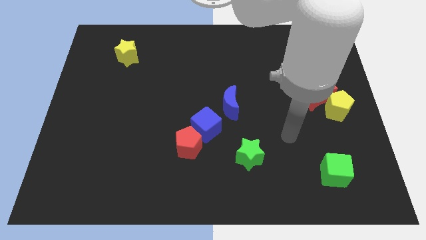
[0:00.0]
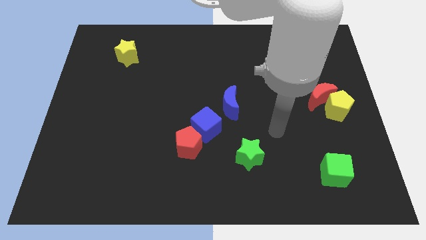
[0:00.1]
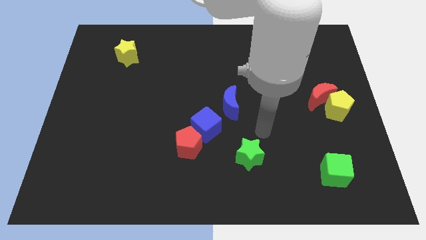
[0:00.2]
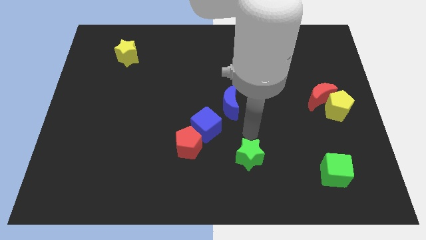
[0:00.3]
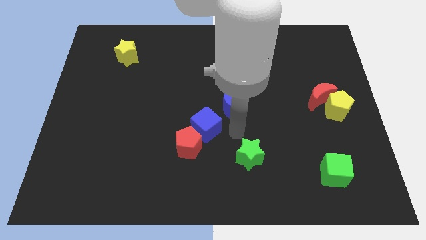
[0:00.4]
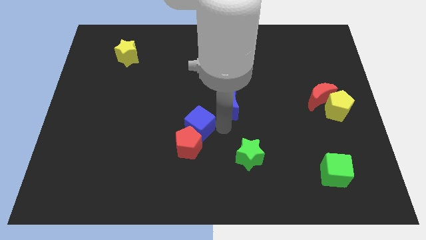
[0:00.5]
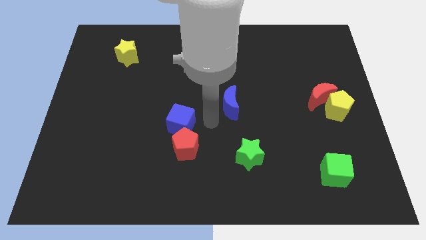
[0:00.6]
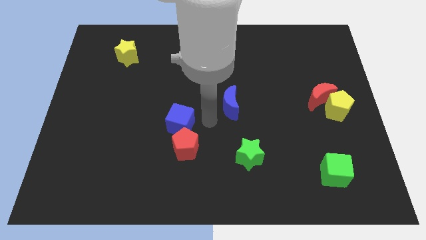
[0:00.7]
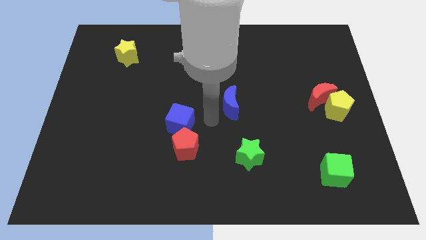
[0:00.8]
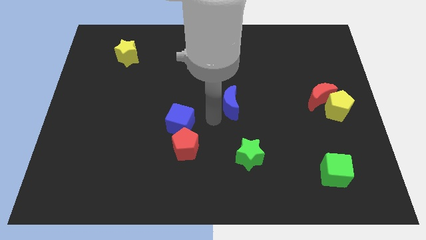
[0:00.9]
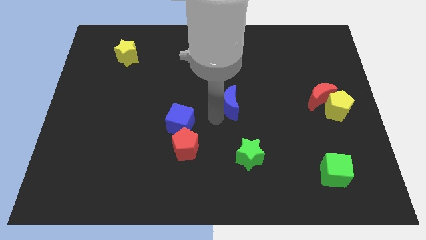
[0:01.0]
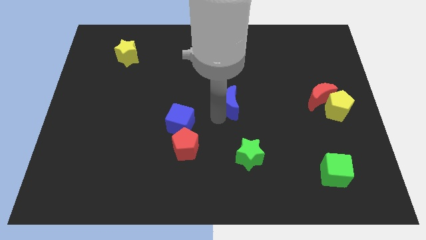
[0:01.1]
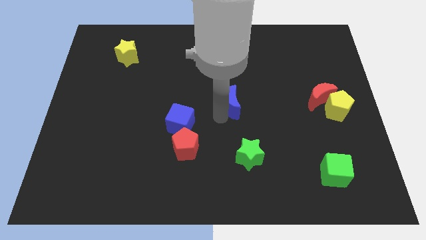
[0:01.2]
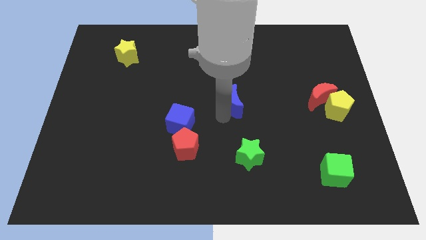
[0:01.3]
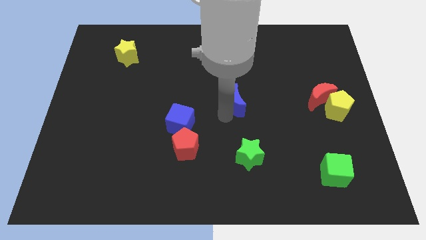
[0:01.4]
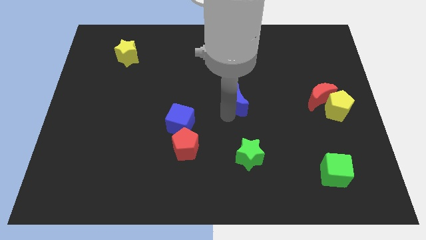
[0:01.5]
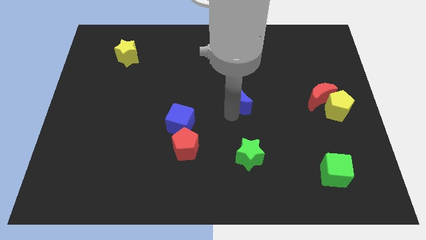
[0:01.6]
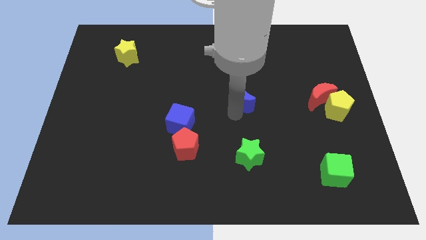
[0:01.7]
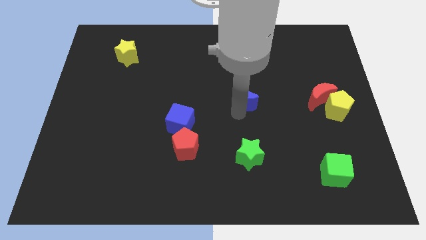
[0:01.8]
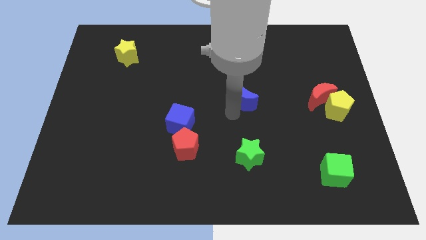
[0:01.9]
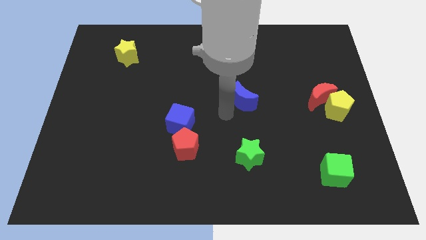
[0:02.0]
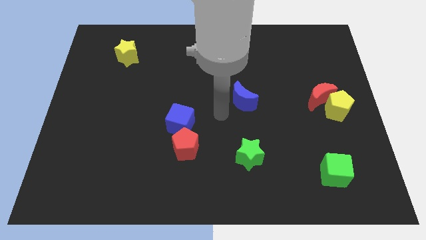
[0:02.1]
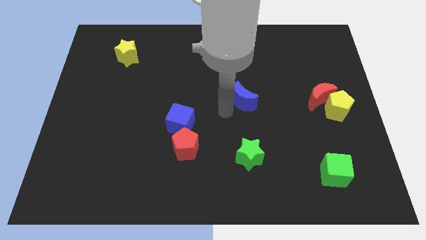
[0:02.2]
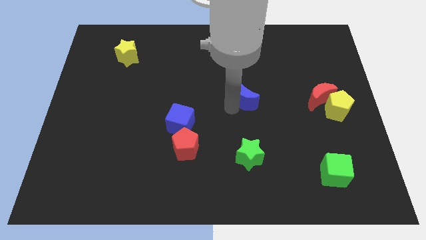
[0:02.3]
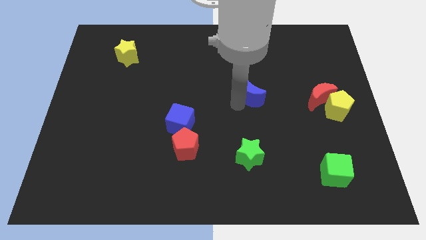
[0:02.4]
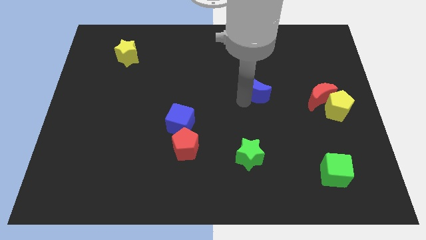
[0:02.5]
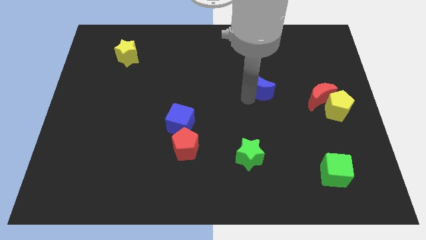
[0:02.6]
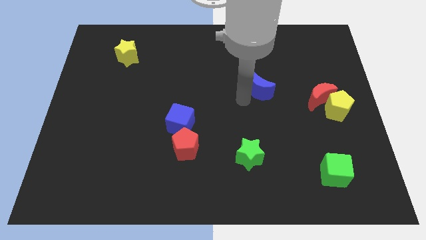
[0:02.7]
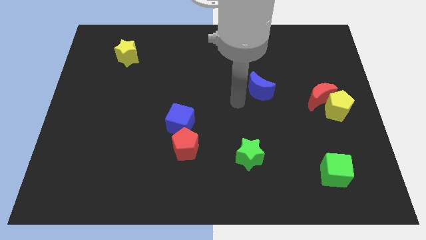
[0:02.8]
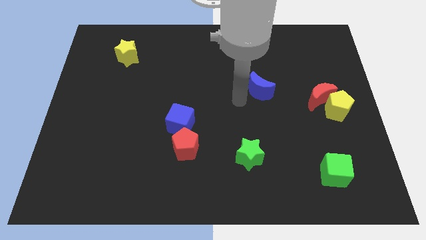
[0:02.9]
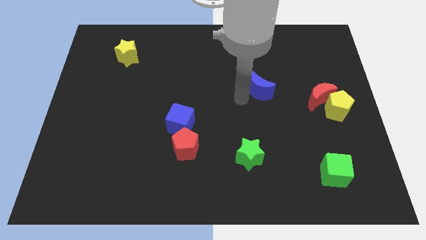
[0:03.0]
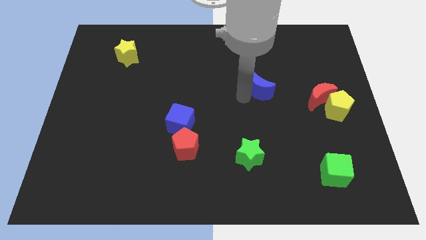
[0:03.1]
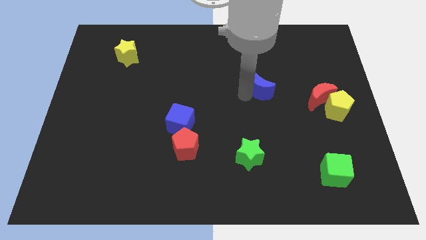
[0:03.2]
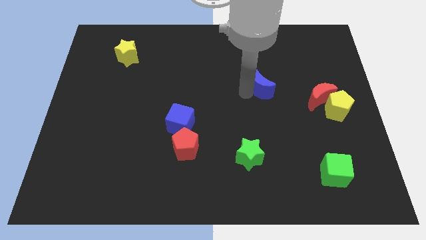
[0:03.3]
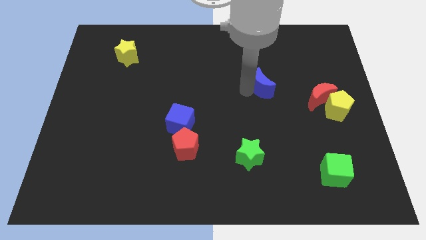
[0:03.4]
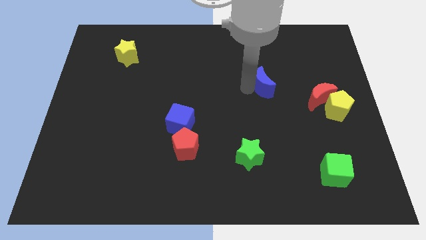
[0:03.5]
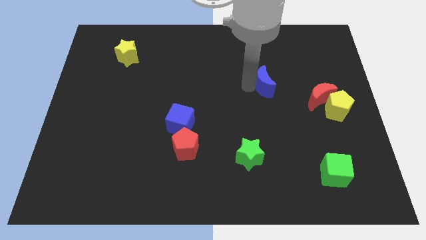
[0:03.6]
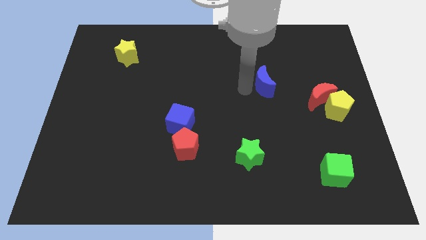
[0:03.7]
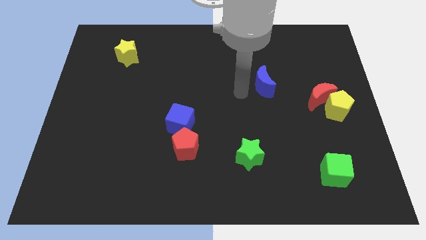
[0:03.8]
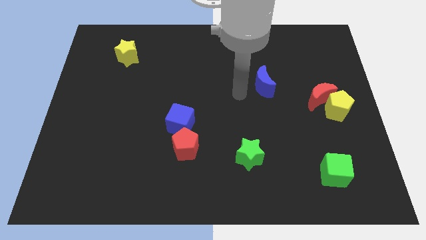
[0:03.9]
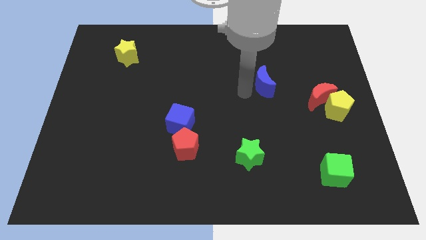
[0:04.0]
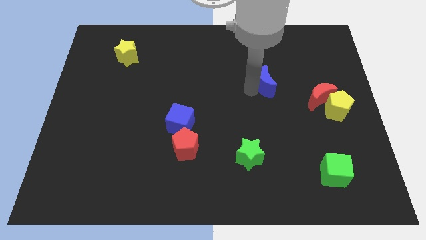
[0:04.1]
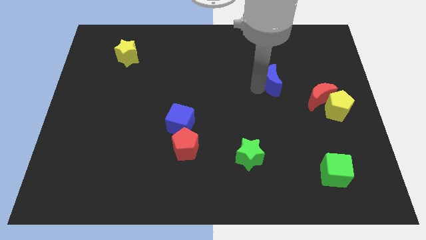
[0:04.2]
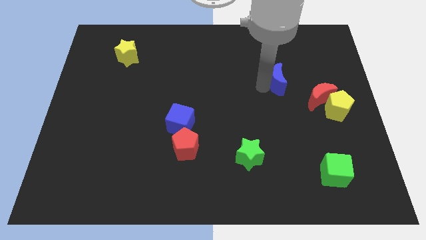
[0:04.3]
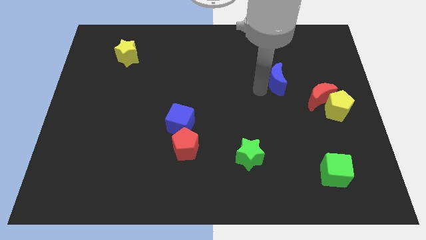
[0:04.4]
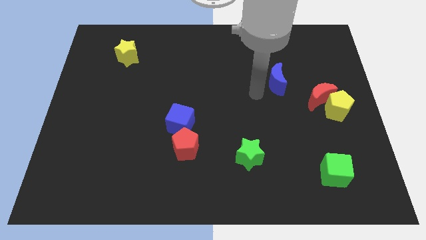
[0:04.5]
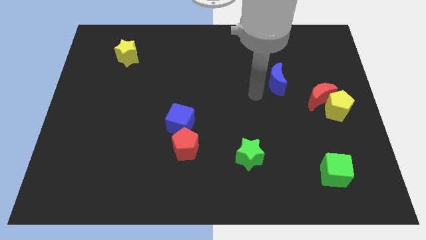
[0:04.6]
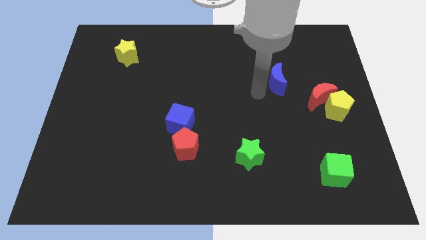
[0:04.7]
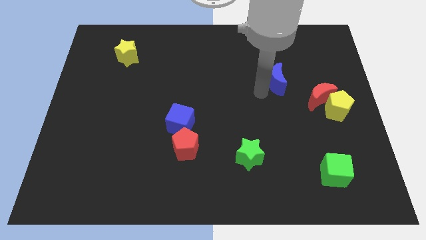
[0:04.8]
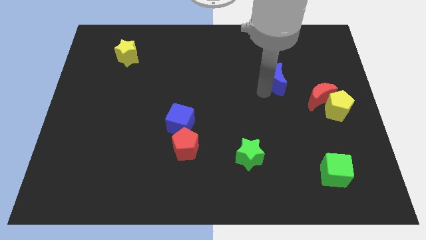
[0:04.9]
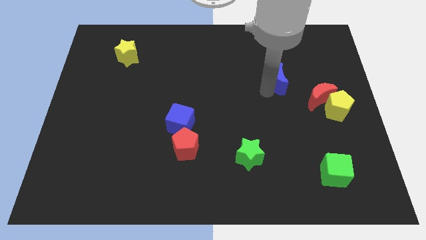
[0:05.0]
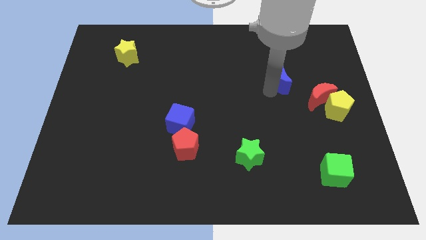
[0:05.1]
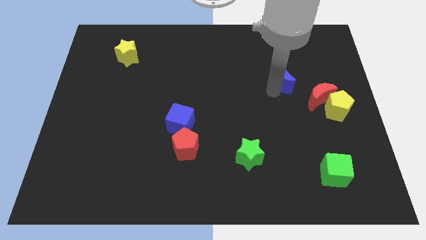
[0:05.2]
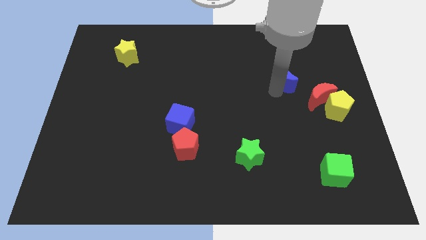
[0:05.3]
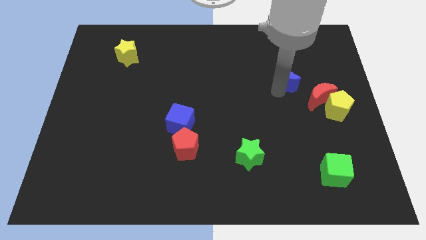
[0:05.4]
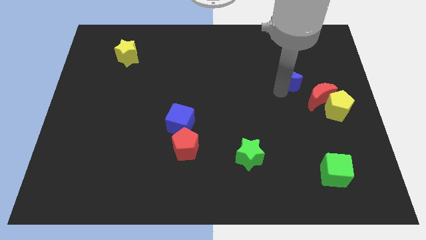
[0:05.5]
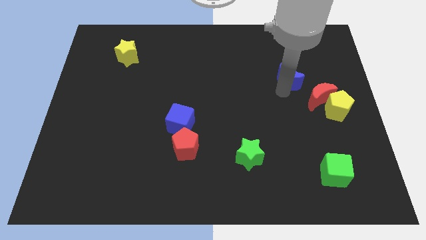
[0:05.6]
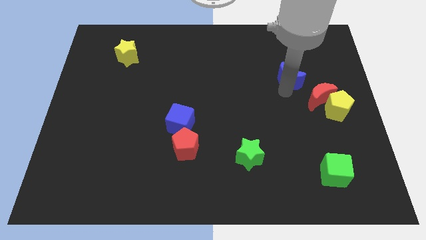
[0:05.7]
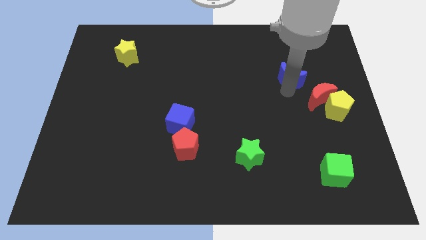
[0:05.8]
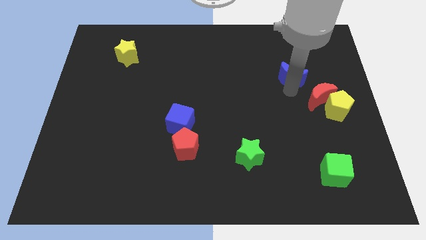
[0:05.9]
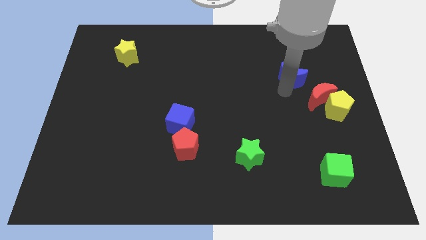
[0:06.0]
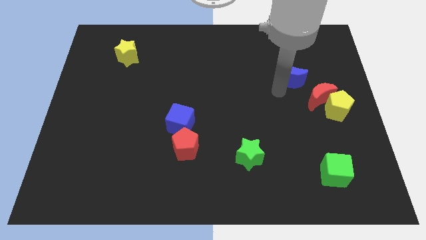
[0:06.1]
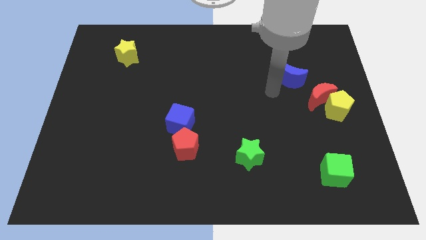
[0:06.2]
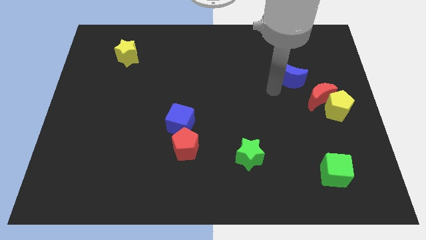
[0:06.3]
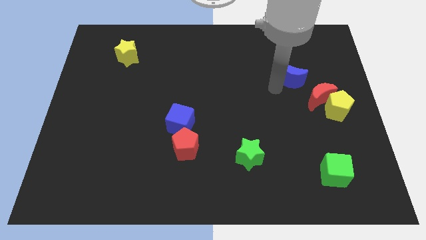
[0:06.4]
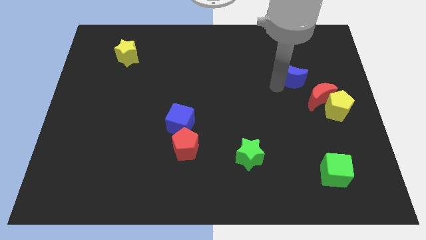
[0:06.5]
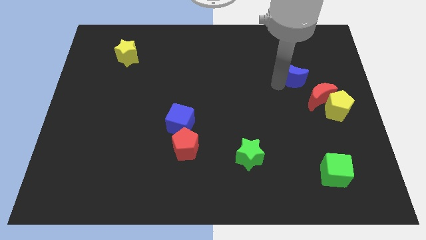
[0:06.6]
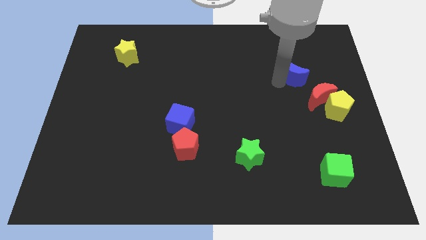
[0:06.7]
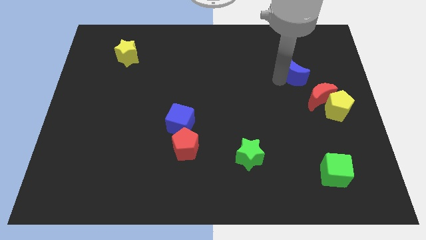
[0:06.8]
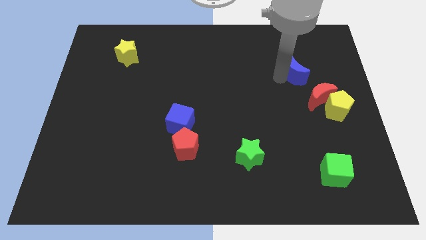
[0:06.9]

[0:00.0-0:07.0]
put the blue moon to the top side of the red moon

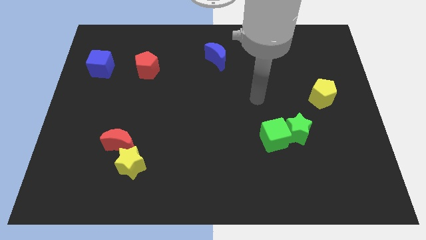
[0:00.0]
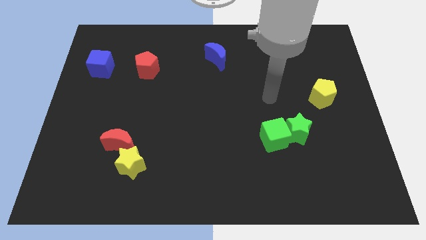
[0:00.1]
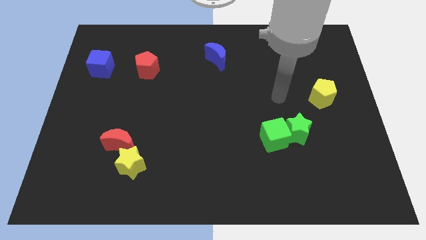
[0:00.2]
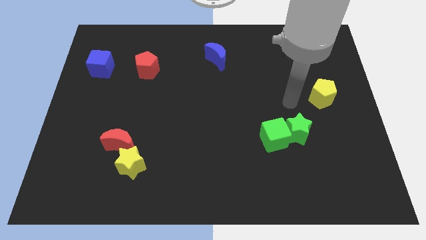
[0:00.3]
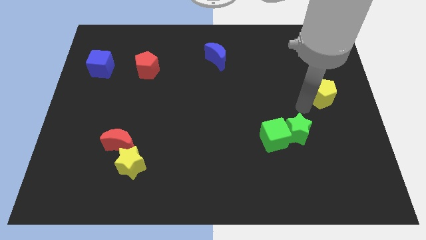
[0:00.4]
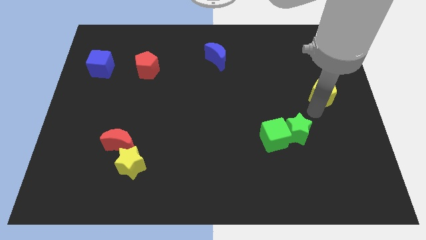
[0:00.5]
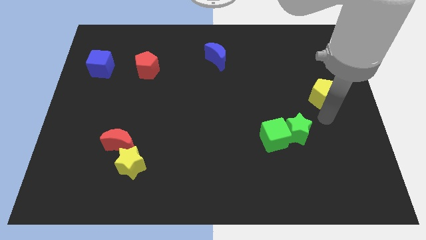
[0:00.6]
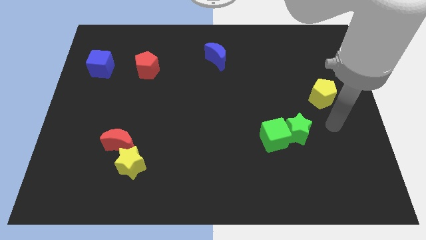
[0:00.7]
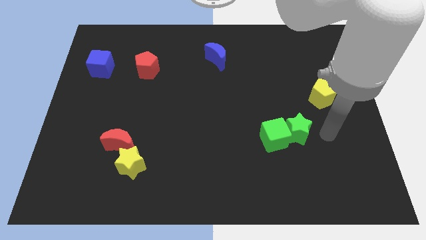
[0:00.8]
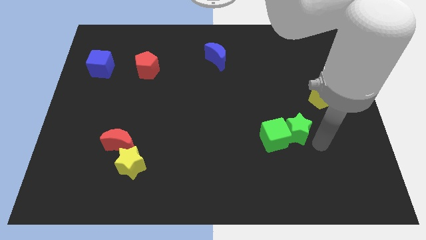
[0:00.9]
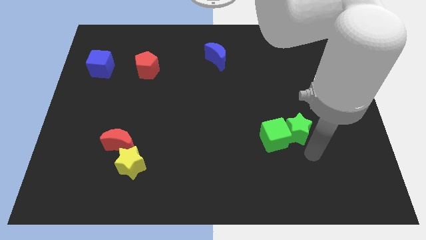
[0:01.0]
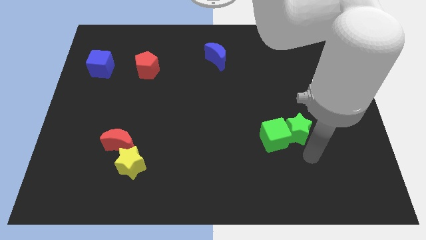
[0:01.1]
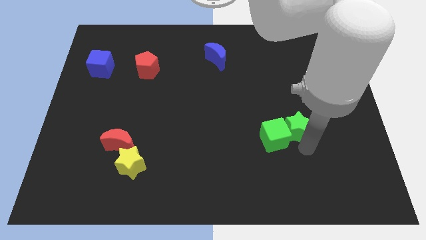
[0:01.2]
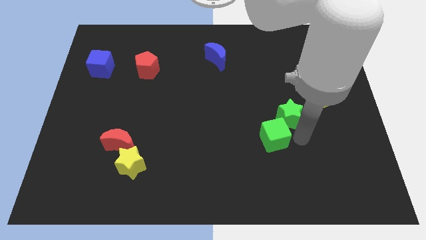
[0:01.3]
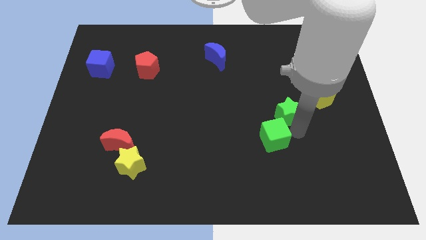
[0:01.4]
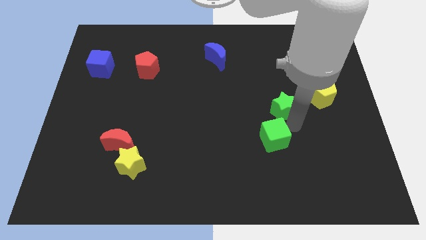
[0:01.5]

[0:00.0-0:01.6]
move the green star to the left side of the yellow pentagon
